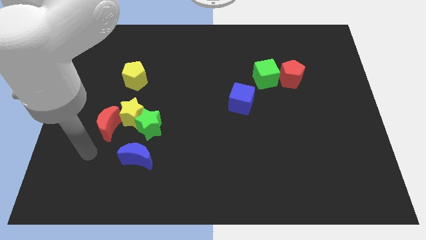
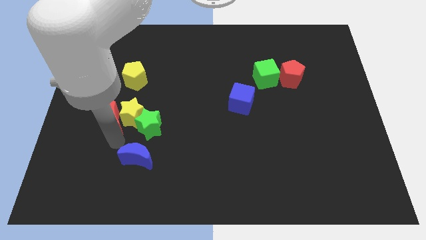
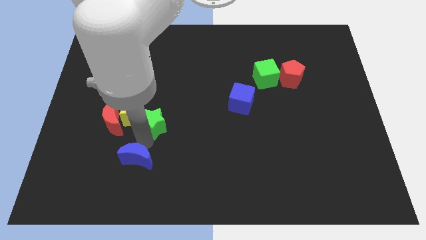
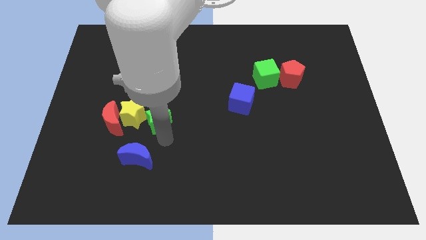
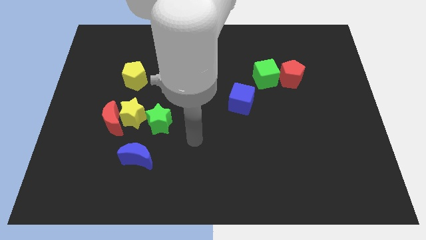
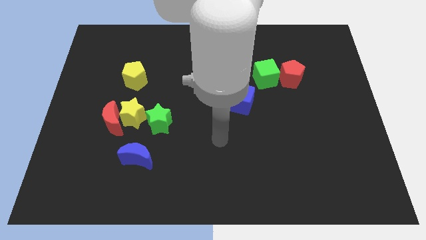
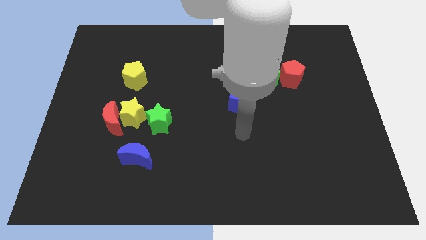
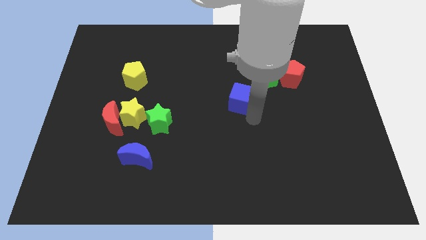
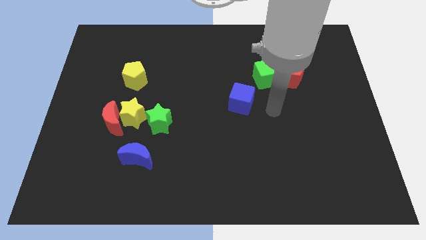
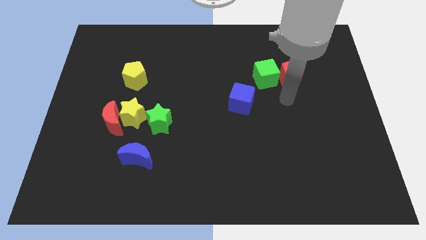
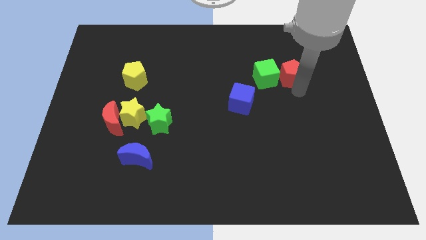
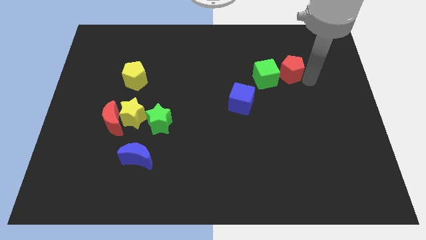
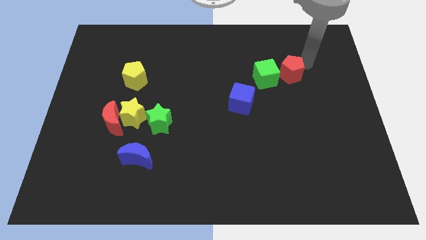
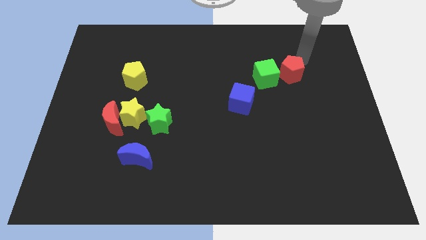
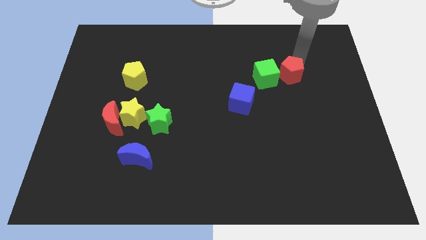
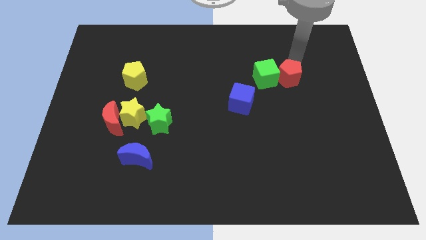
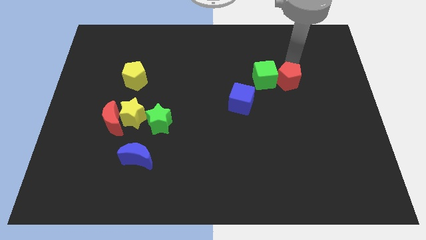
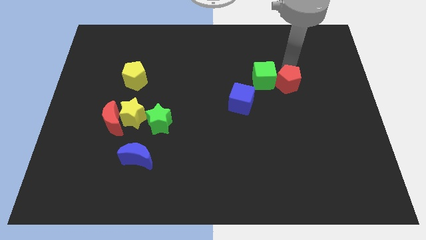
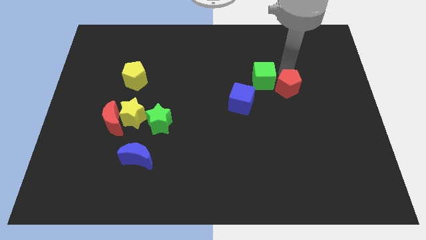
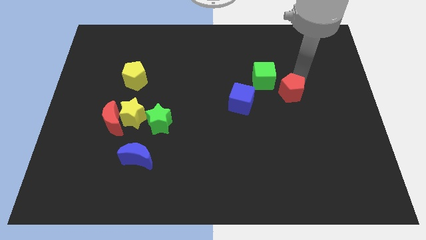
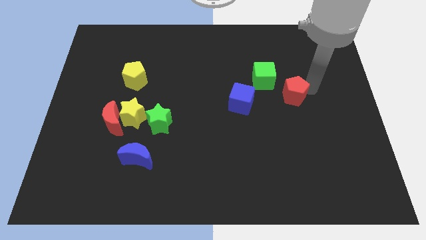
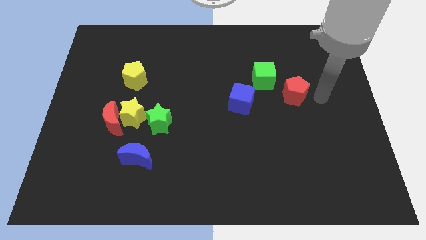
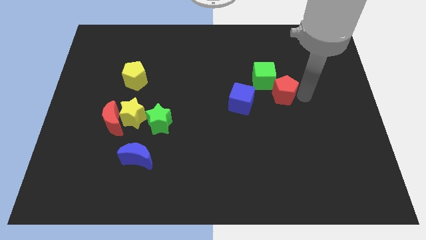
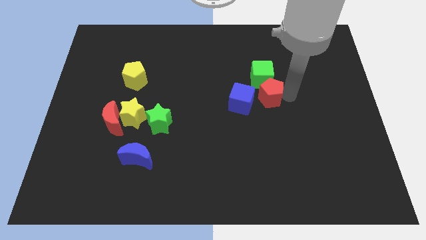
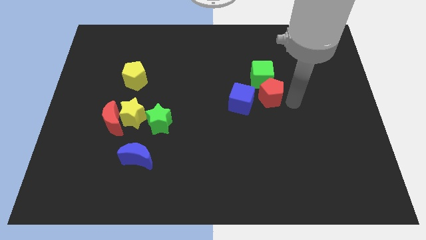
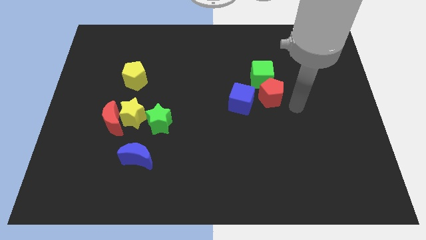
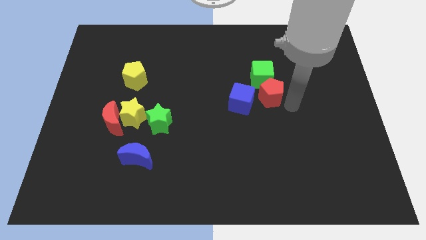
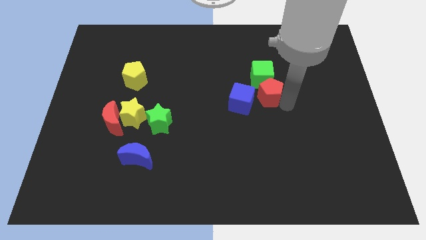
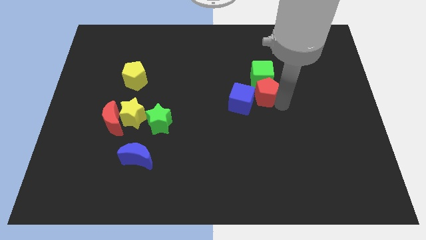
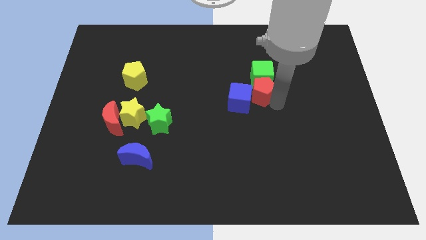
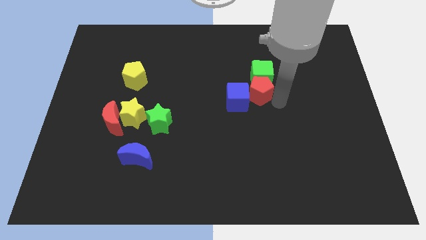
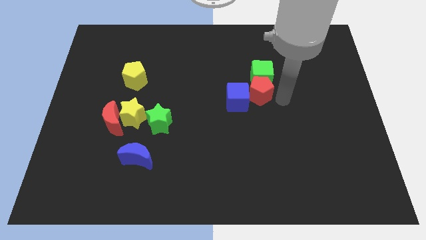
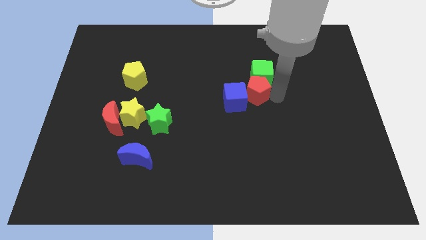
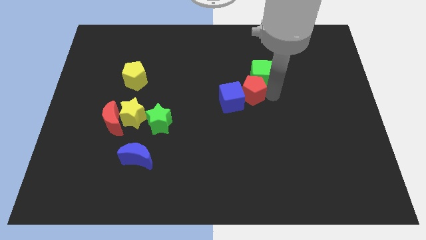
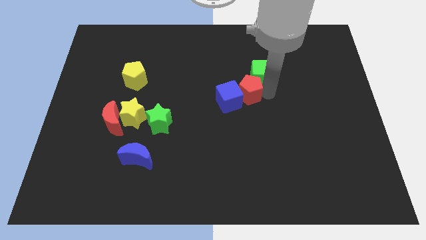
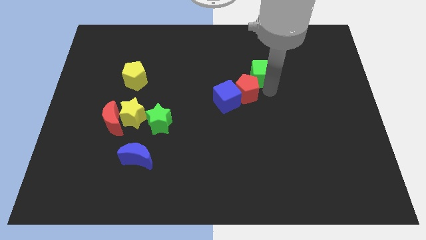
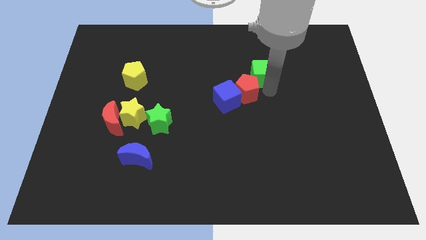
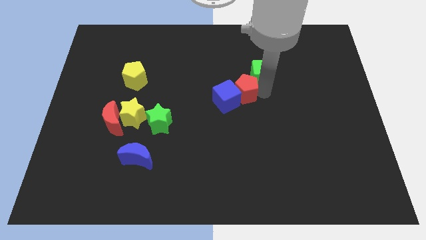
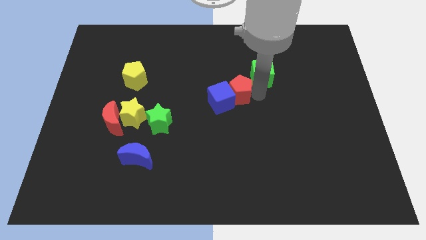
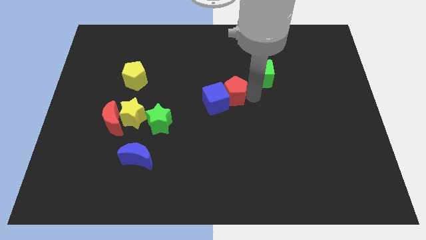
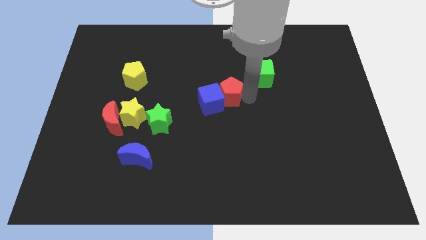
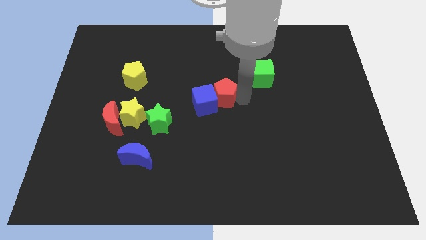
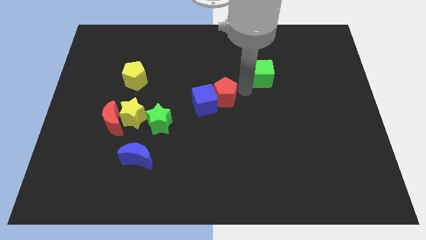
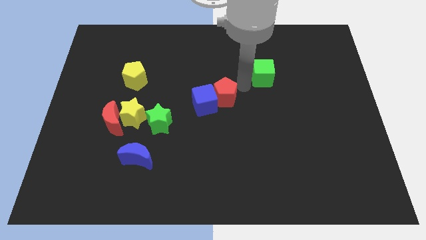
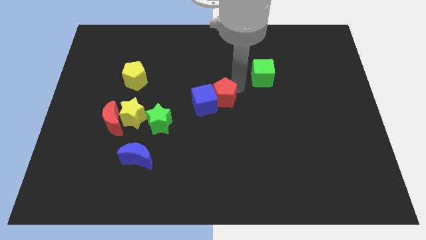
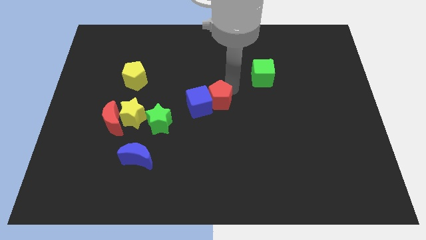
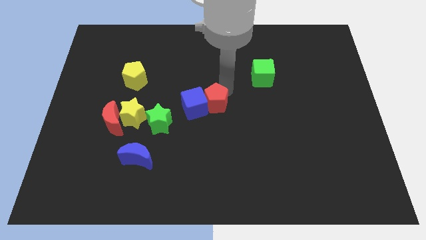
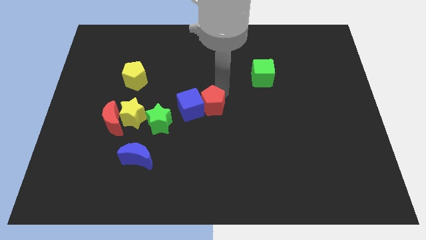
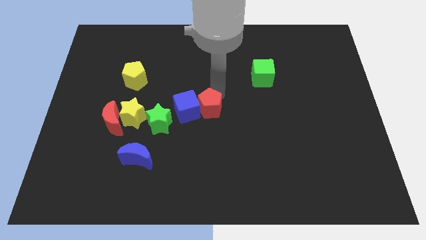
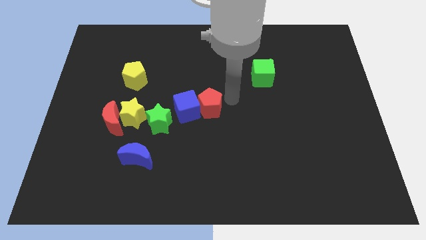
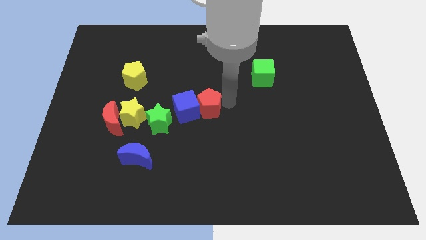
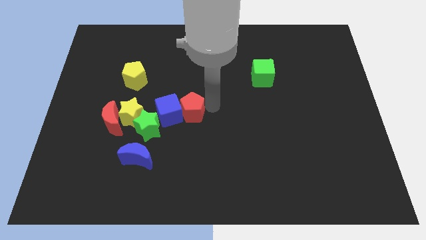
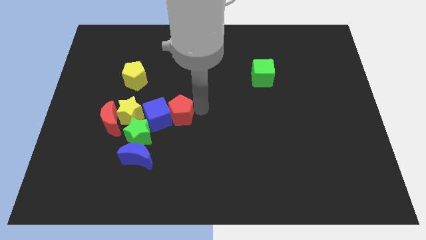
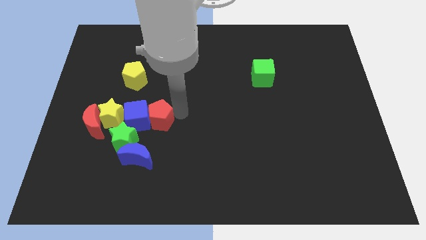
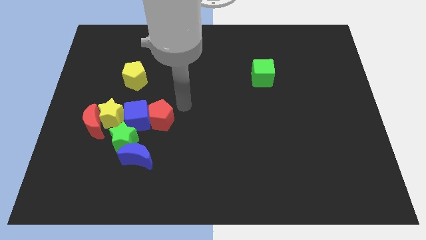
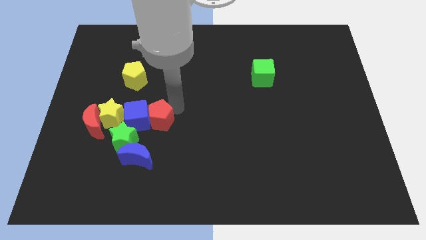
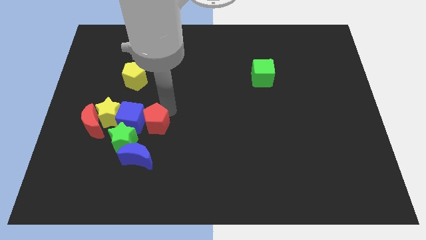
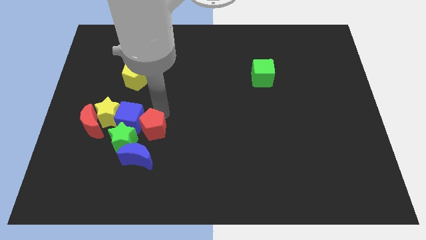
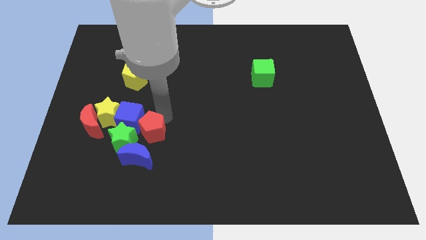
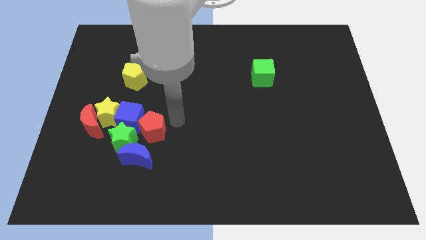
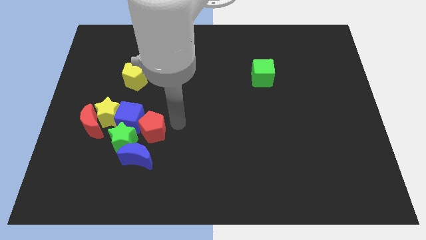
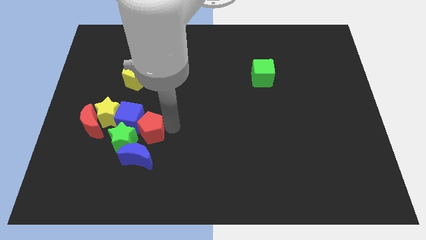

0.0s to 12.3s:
put the red pentagon close to the green star
